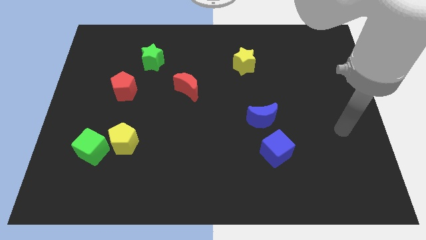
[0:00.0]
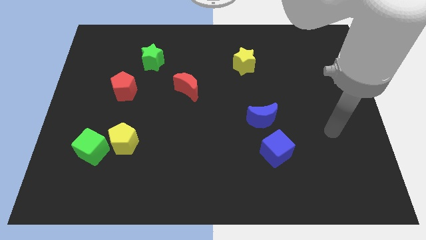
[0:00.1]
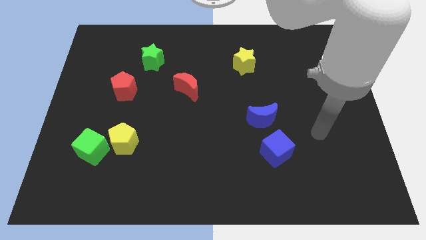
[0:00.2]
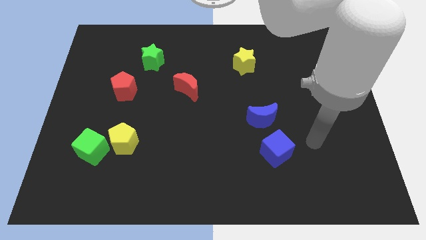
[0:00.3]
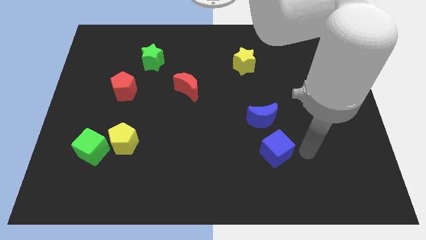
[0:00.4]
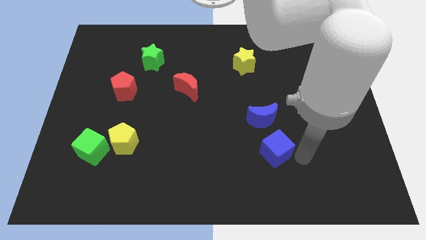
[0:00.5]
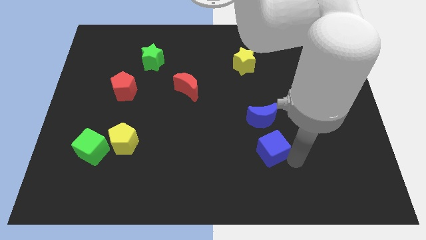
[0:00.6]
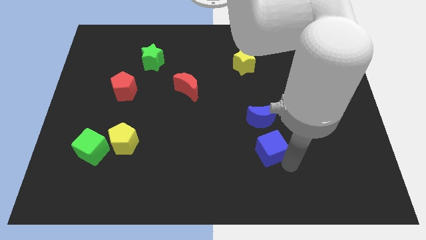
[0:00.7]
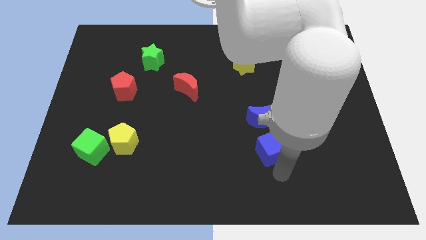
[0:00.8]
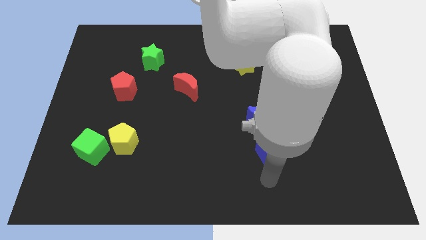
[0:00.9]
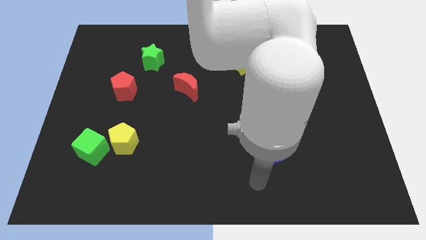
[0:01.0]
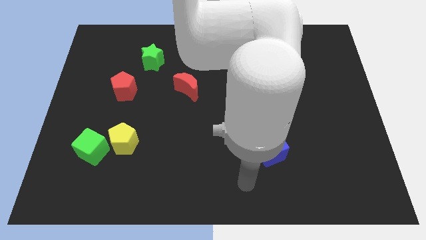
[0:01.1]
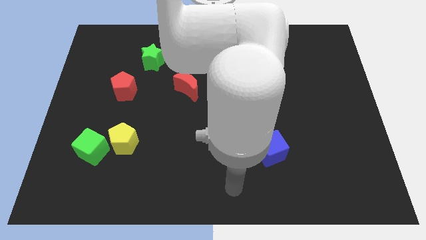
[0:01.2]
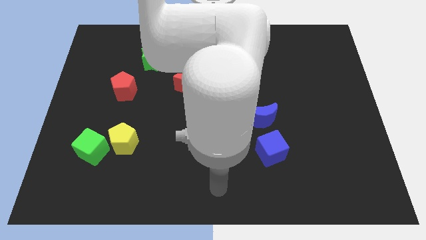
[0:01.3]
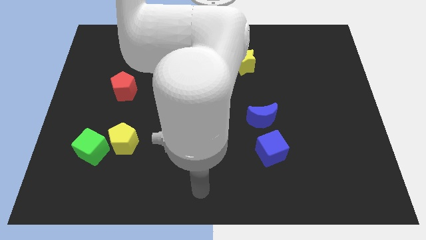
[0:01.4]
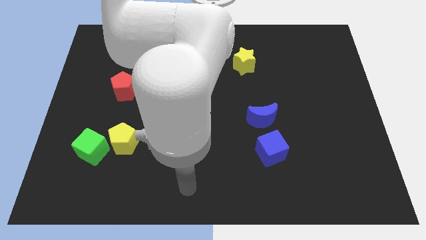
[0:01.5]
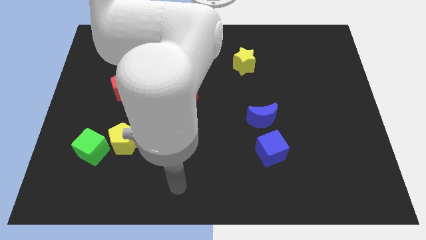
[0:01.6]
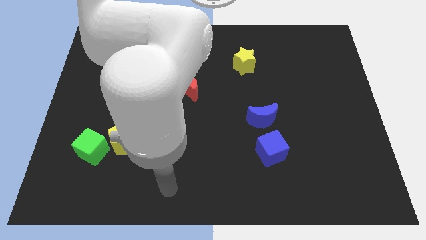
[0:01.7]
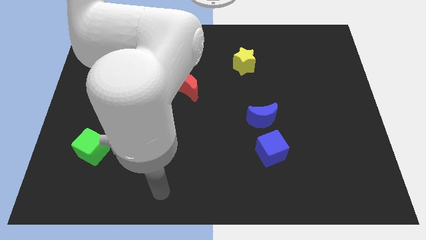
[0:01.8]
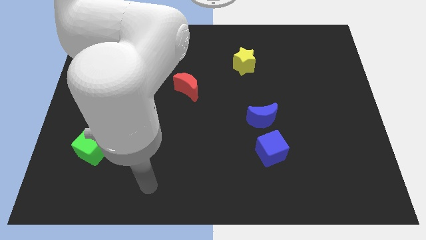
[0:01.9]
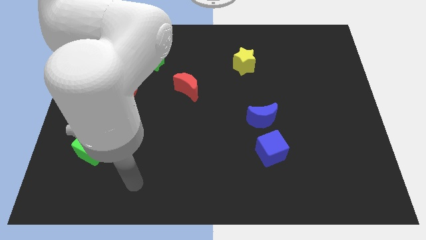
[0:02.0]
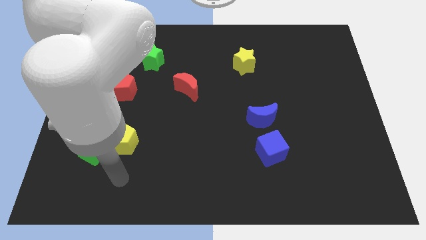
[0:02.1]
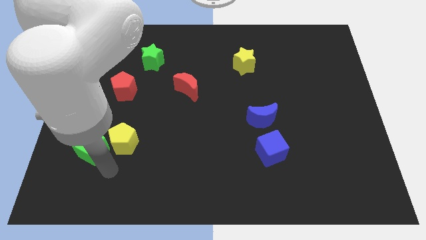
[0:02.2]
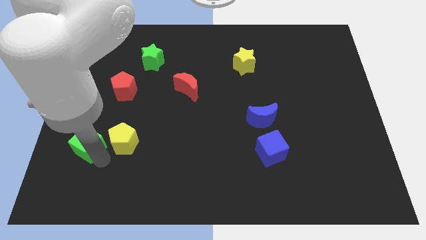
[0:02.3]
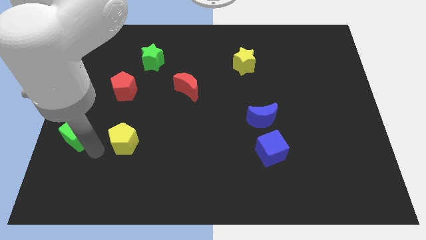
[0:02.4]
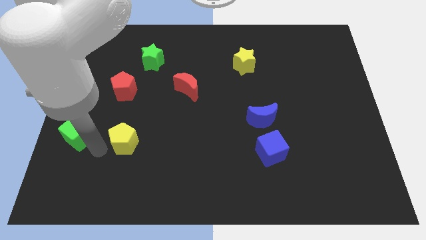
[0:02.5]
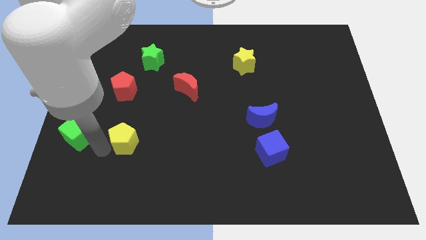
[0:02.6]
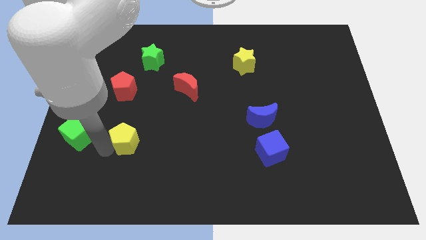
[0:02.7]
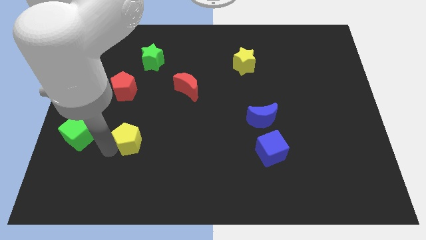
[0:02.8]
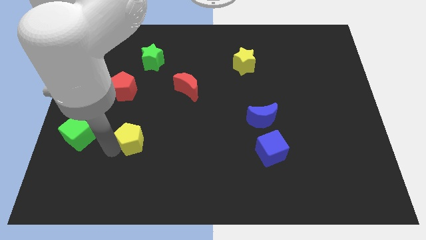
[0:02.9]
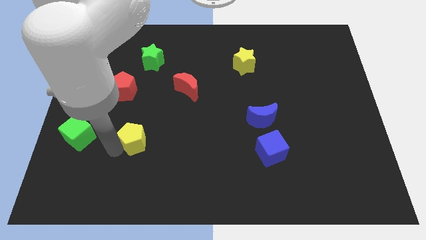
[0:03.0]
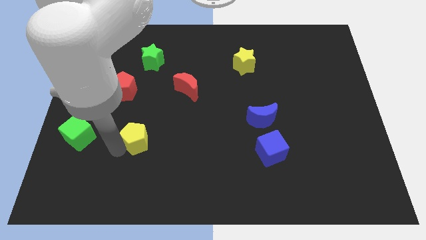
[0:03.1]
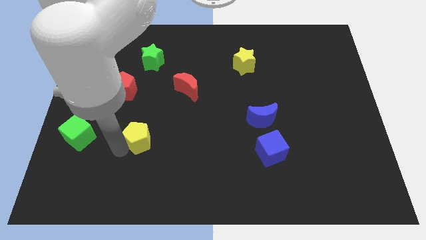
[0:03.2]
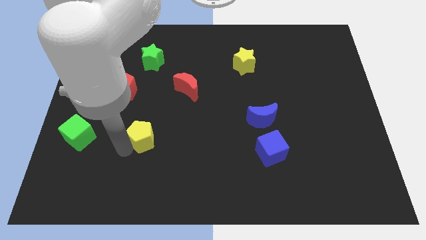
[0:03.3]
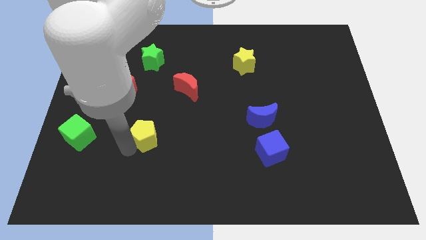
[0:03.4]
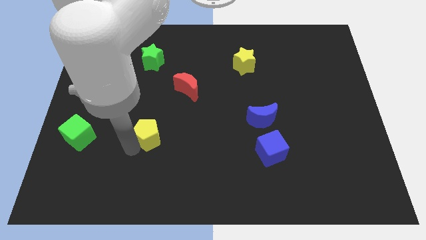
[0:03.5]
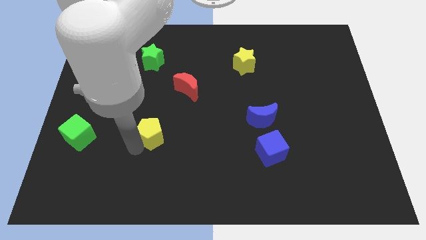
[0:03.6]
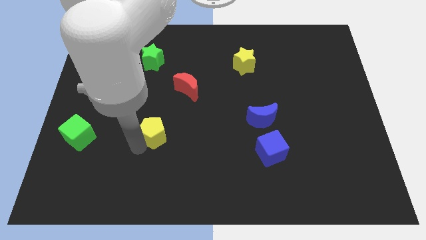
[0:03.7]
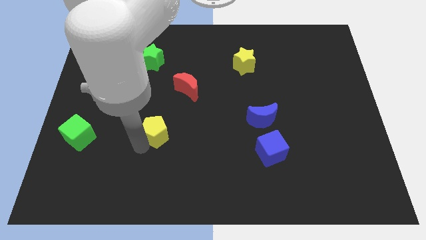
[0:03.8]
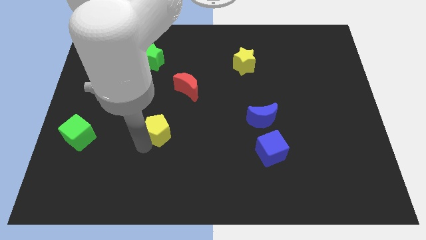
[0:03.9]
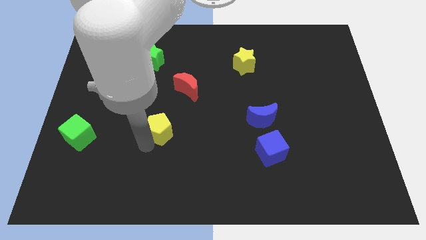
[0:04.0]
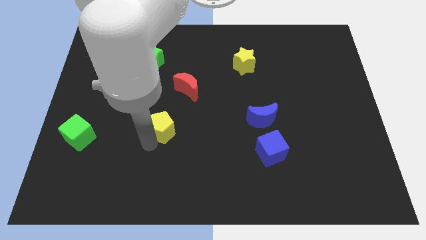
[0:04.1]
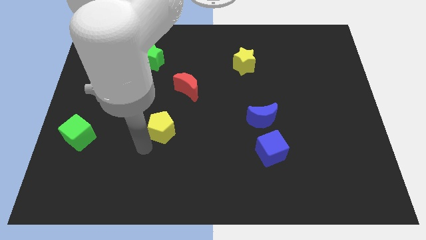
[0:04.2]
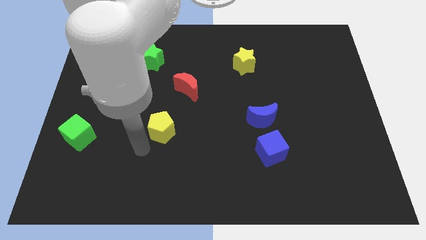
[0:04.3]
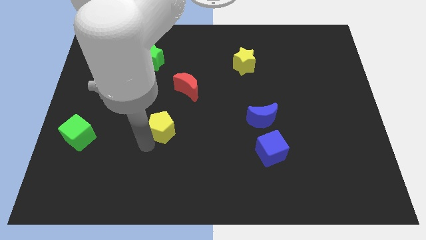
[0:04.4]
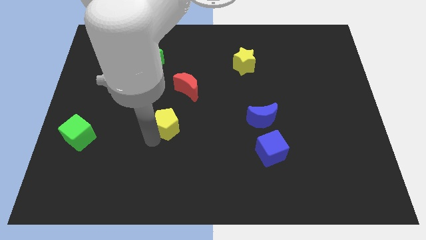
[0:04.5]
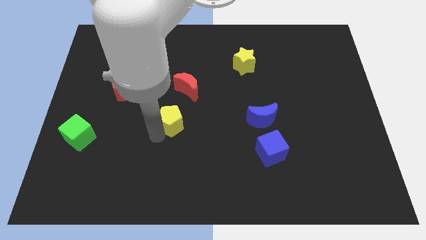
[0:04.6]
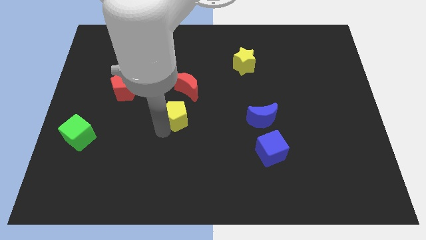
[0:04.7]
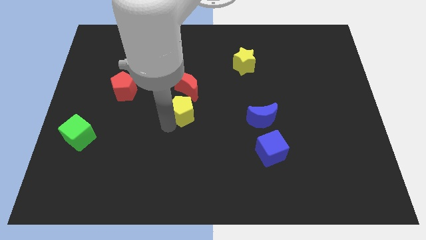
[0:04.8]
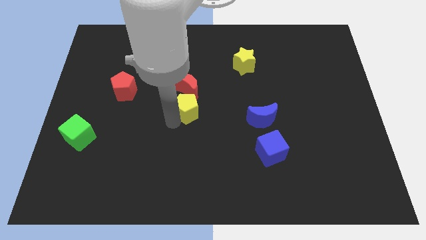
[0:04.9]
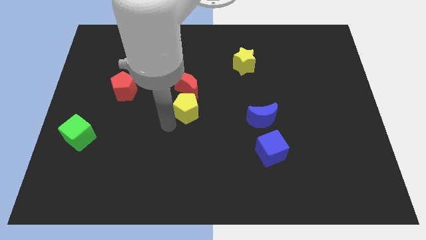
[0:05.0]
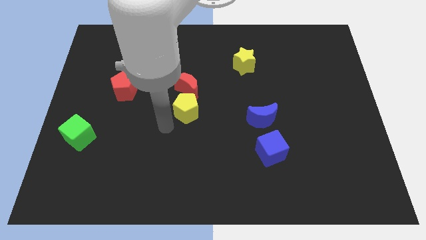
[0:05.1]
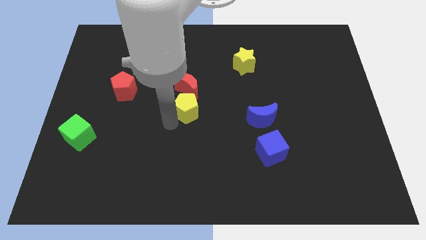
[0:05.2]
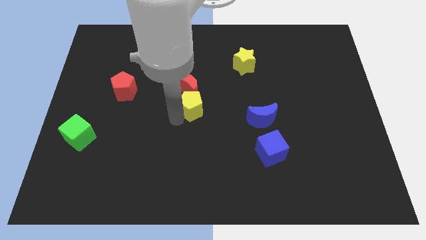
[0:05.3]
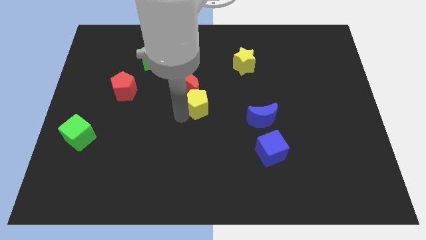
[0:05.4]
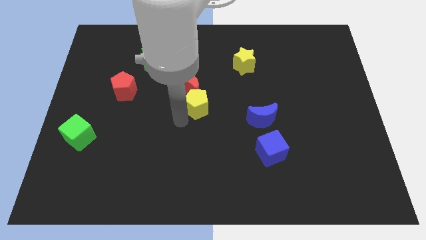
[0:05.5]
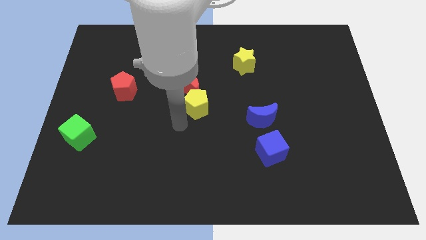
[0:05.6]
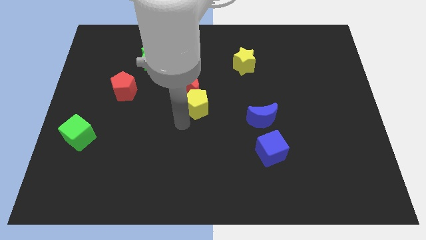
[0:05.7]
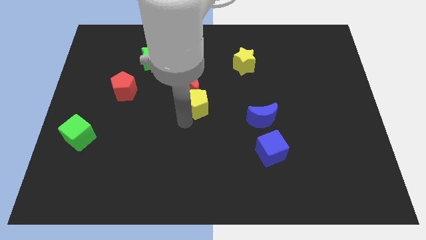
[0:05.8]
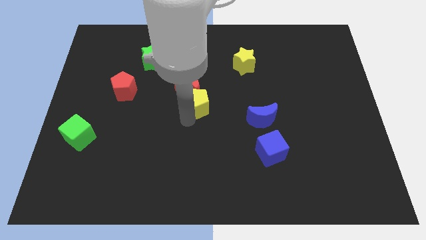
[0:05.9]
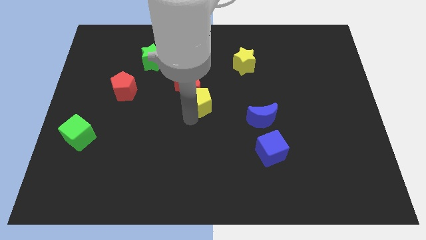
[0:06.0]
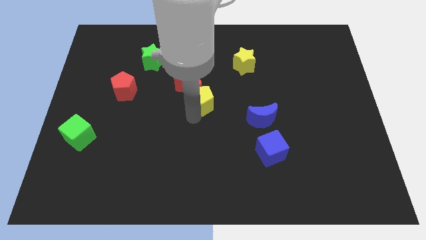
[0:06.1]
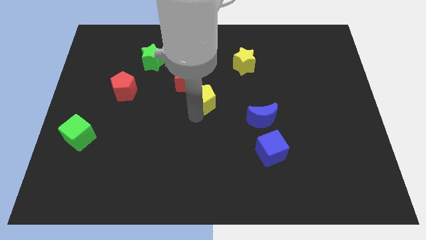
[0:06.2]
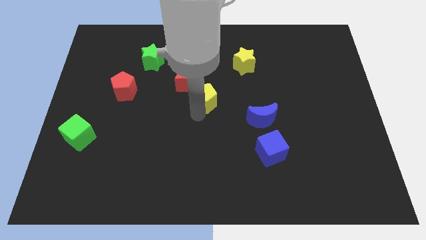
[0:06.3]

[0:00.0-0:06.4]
move the yellow pentagon upwards and then right

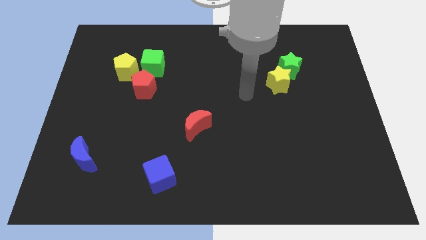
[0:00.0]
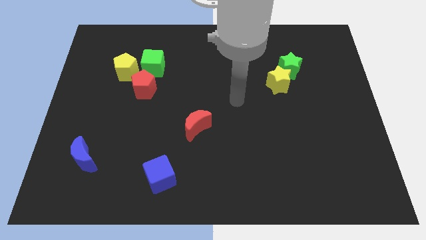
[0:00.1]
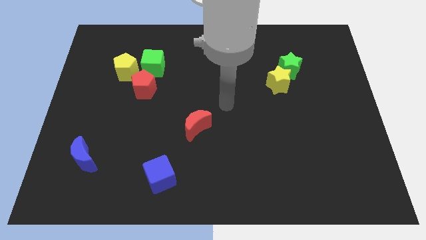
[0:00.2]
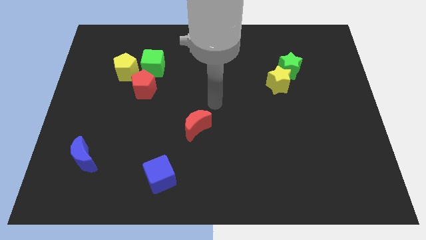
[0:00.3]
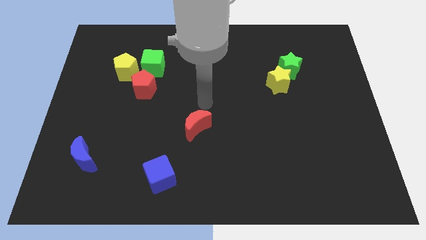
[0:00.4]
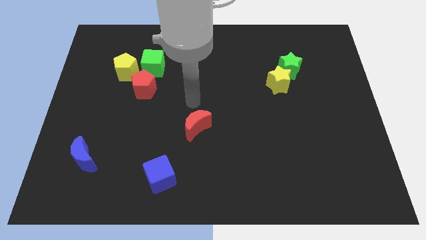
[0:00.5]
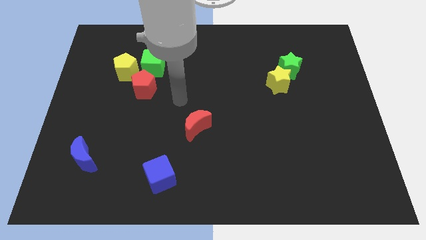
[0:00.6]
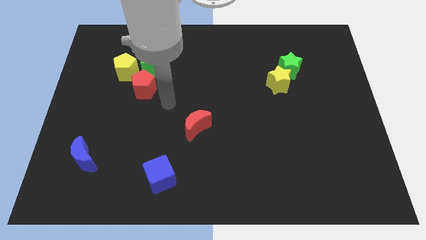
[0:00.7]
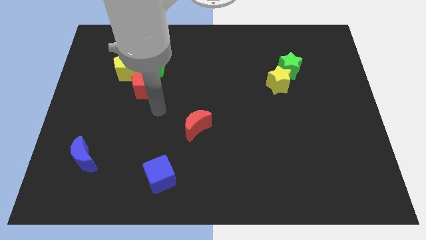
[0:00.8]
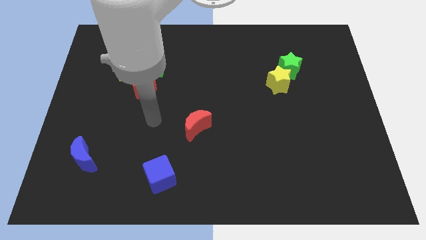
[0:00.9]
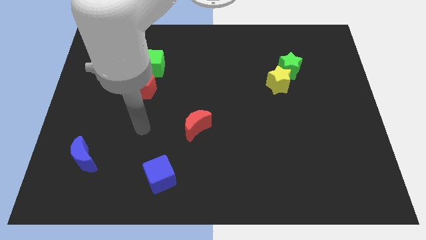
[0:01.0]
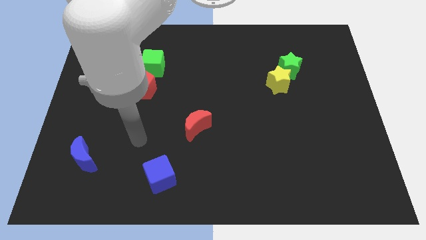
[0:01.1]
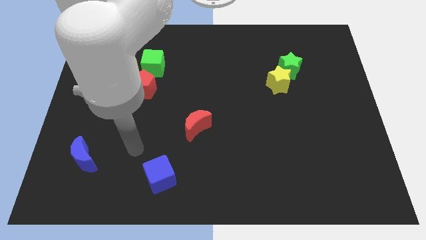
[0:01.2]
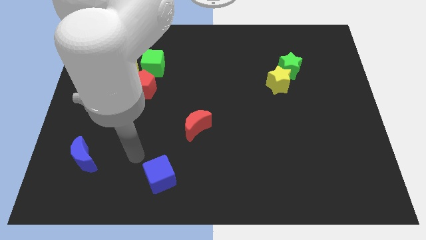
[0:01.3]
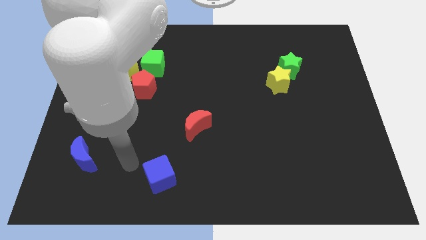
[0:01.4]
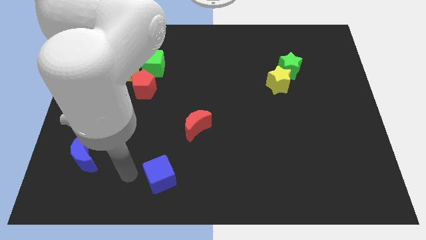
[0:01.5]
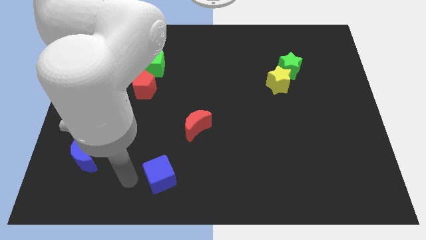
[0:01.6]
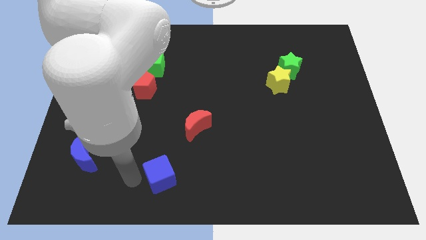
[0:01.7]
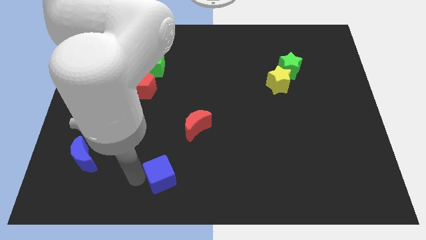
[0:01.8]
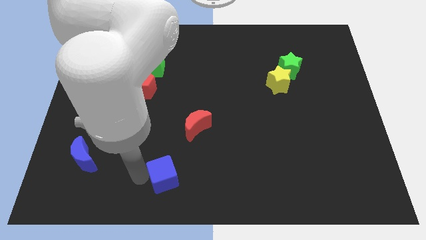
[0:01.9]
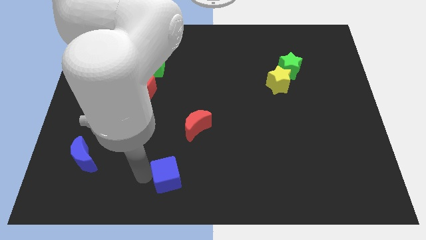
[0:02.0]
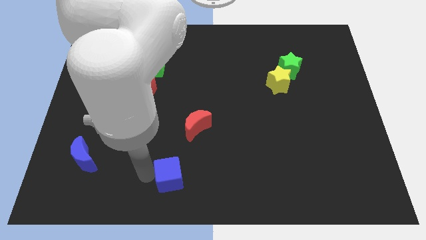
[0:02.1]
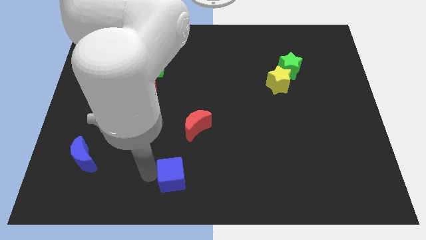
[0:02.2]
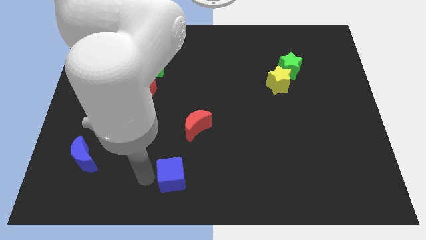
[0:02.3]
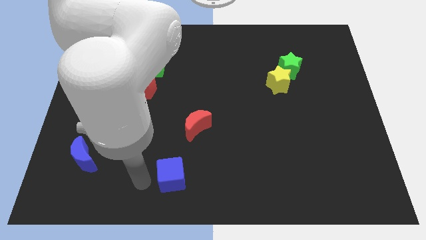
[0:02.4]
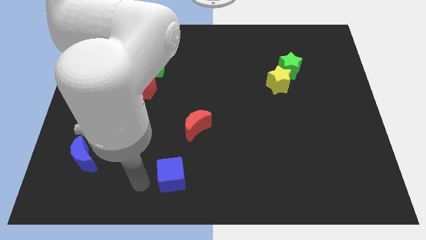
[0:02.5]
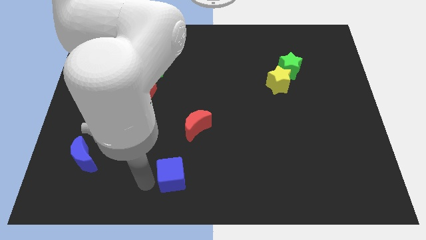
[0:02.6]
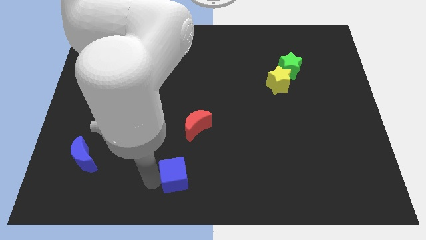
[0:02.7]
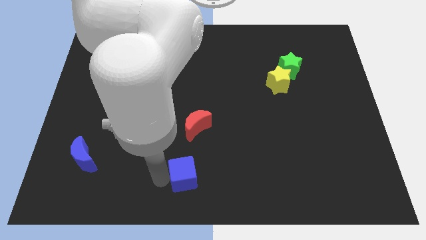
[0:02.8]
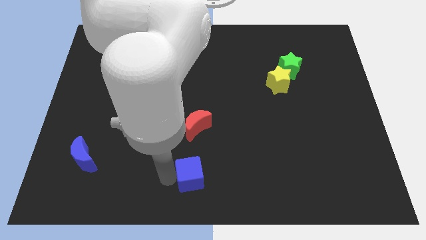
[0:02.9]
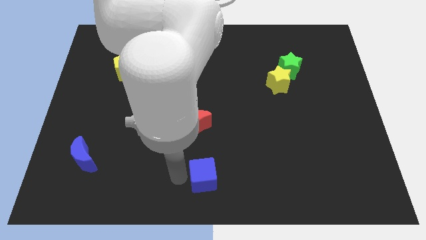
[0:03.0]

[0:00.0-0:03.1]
slide the blue cube right somewhat
